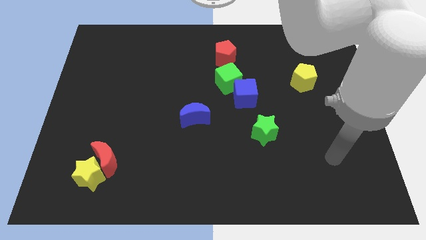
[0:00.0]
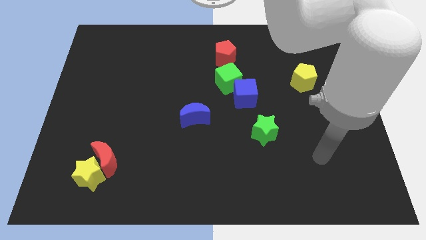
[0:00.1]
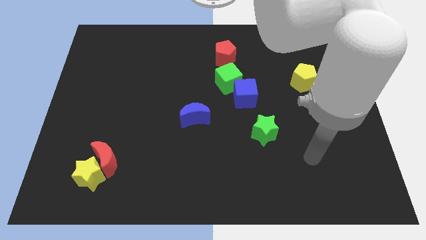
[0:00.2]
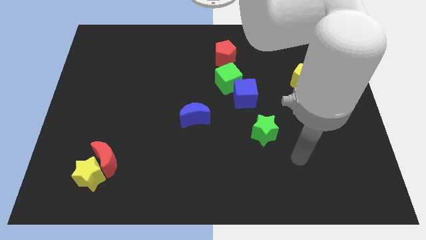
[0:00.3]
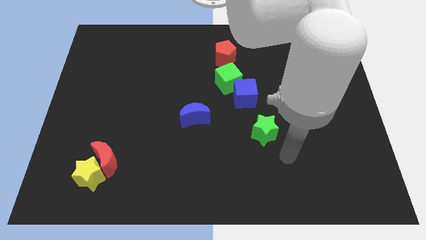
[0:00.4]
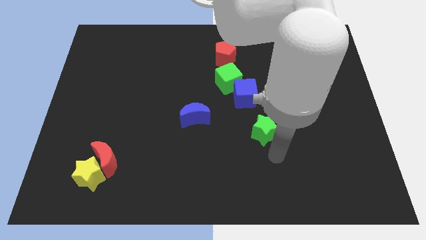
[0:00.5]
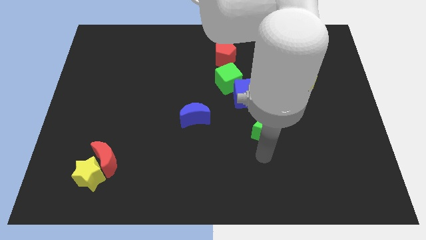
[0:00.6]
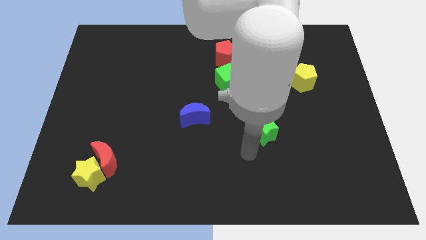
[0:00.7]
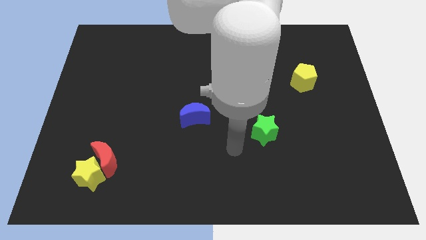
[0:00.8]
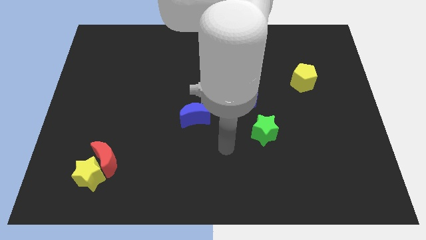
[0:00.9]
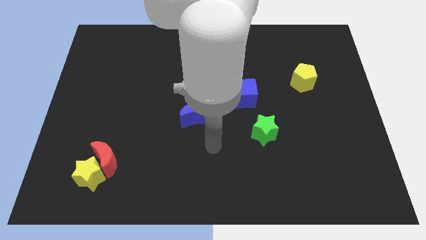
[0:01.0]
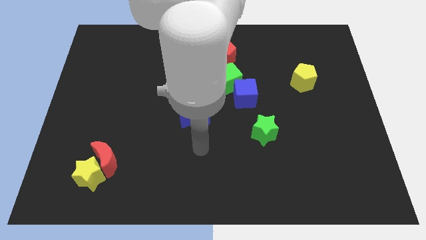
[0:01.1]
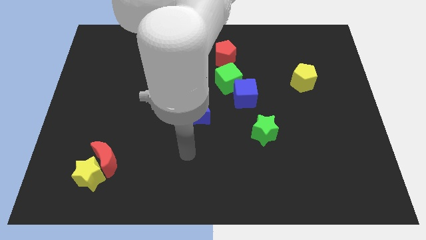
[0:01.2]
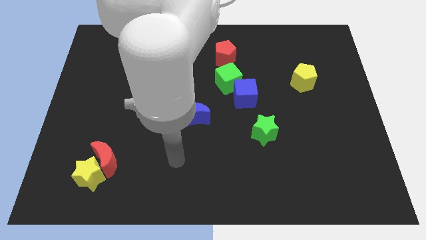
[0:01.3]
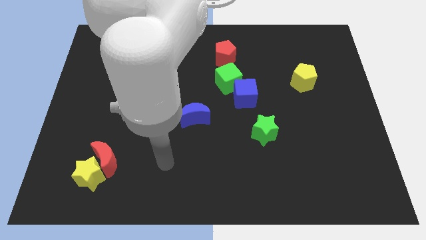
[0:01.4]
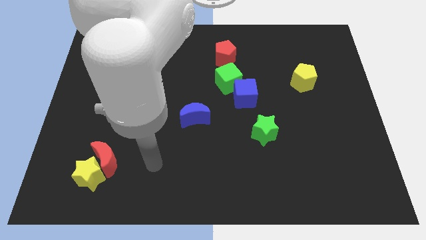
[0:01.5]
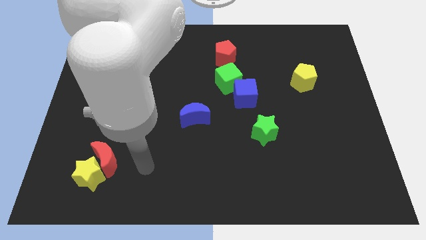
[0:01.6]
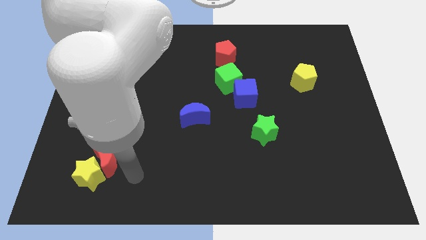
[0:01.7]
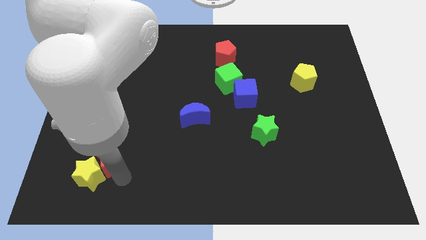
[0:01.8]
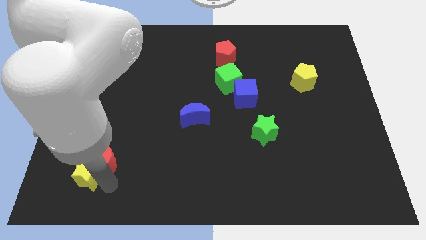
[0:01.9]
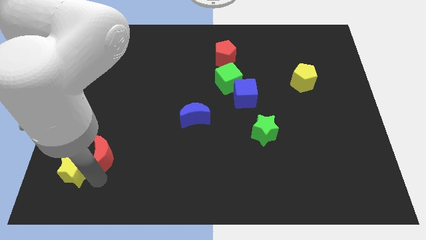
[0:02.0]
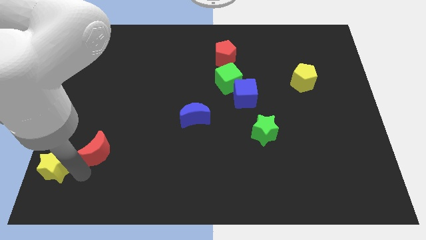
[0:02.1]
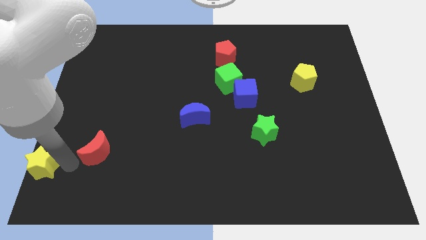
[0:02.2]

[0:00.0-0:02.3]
separate the red moon from the yellow star

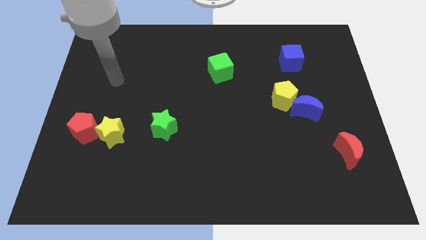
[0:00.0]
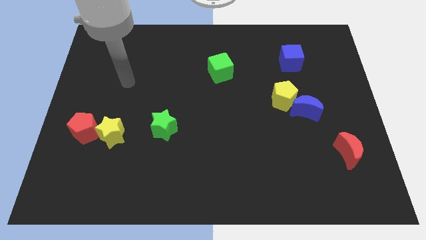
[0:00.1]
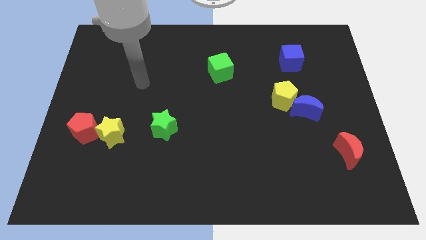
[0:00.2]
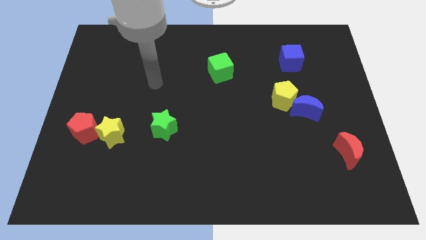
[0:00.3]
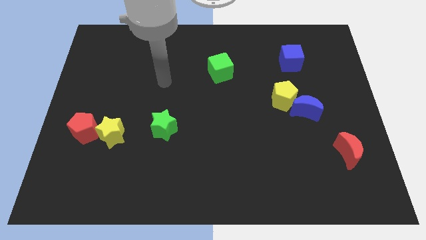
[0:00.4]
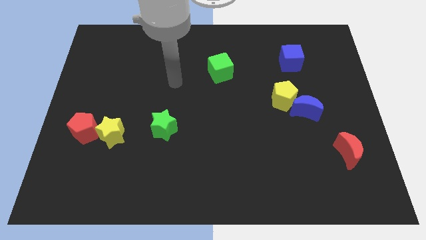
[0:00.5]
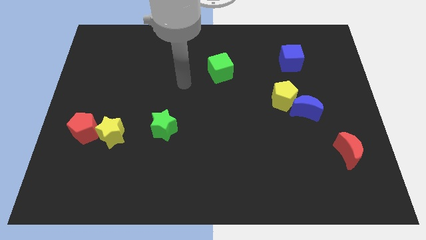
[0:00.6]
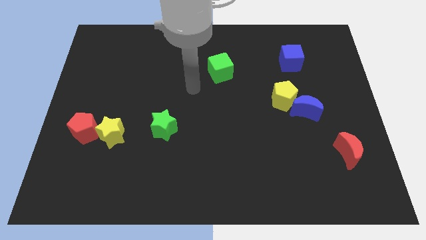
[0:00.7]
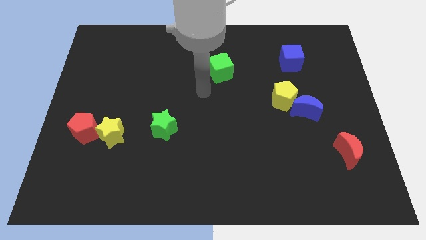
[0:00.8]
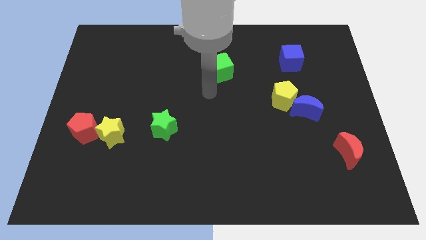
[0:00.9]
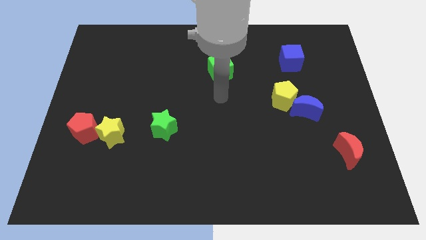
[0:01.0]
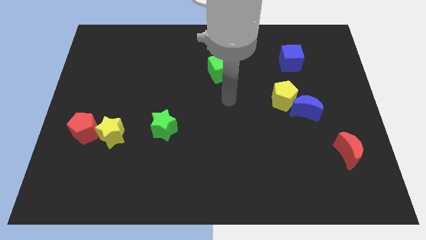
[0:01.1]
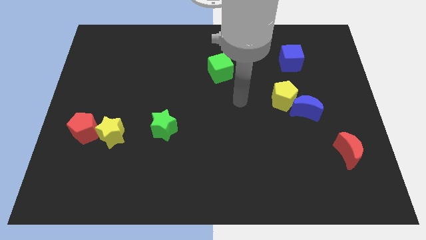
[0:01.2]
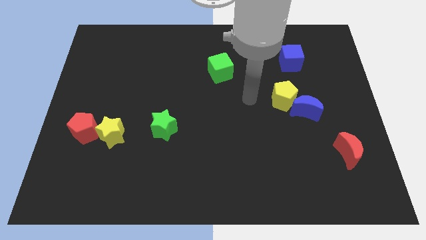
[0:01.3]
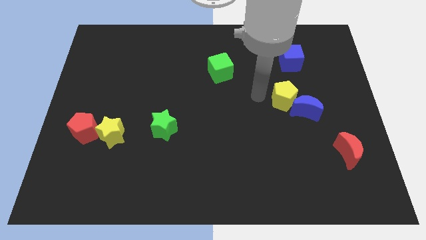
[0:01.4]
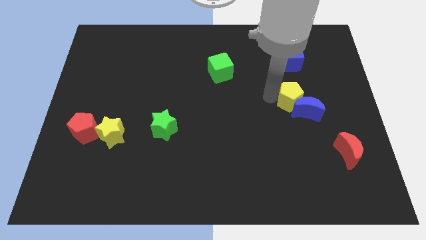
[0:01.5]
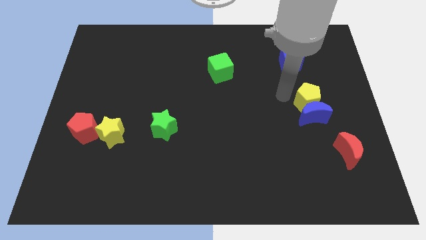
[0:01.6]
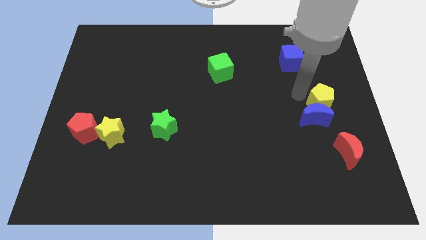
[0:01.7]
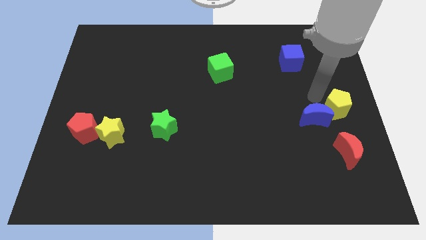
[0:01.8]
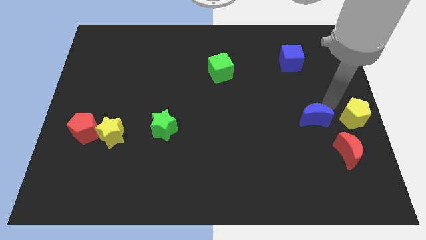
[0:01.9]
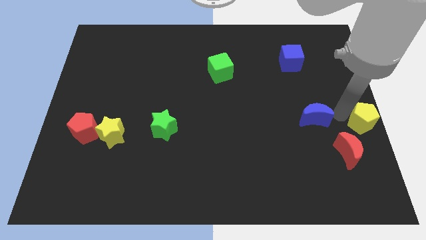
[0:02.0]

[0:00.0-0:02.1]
separate the blue moon from the yellow pentagon

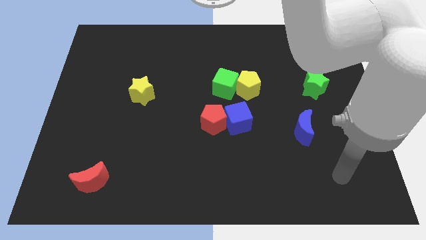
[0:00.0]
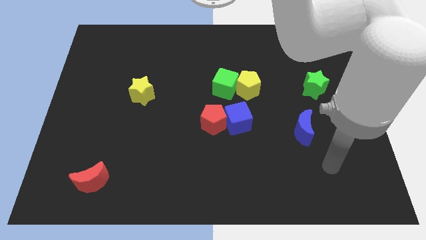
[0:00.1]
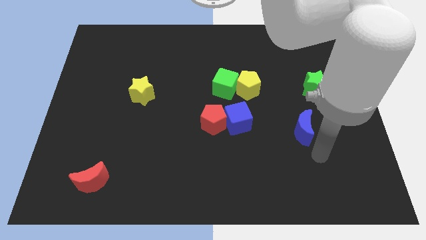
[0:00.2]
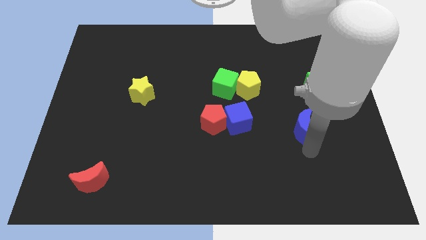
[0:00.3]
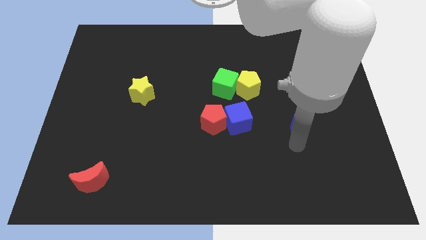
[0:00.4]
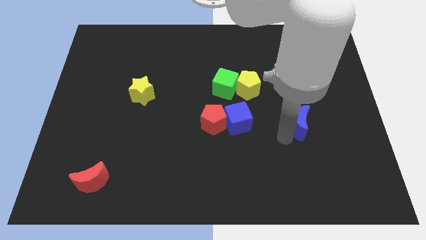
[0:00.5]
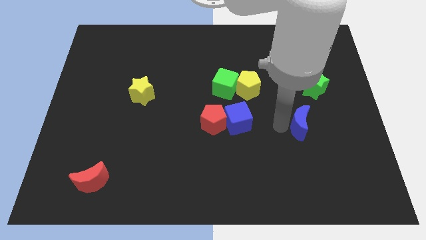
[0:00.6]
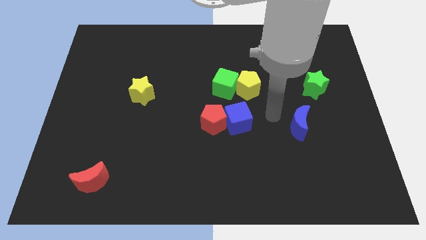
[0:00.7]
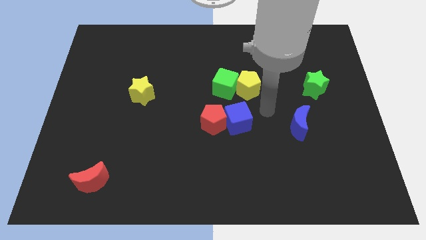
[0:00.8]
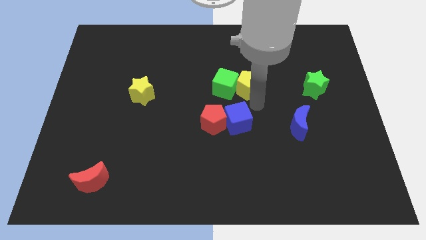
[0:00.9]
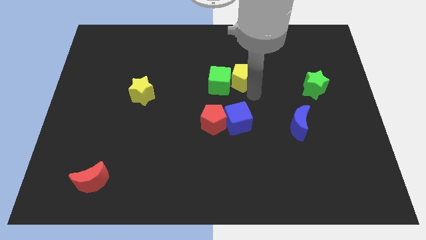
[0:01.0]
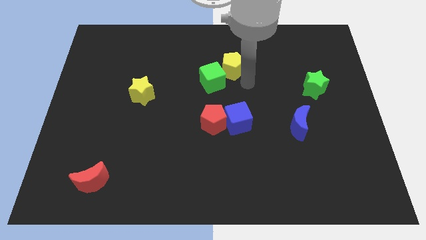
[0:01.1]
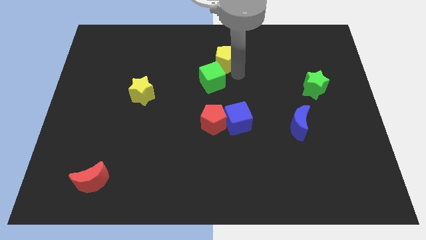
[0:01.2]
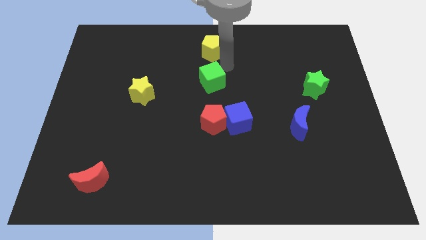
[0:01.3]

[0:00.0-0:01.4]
move the green cube away from the yellow pentagon

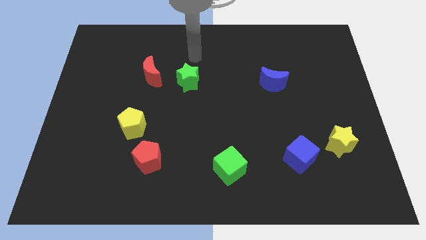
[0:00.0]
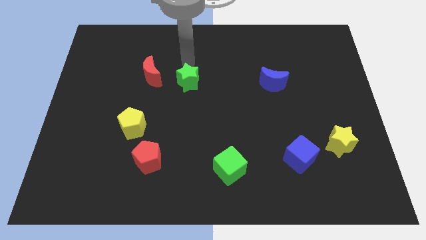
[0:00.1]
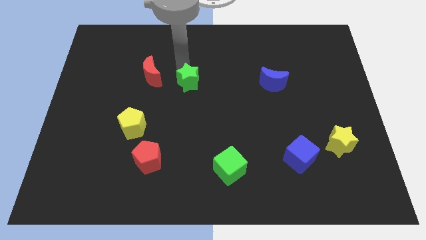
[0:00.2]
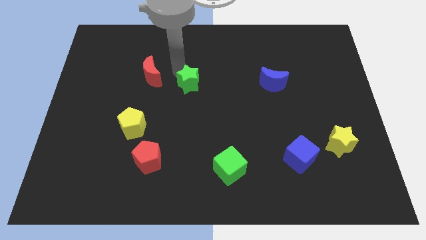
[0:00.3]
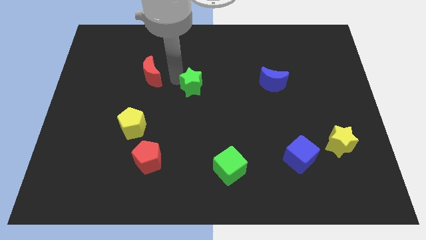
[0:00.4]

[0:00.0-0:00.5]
move the red moon away from the green star

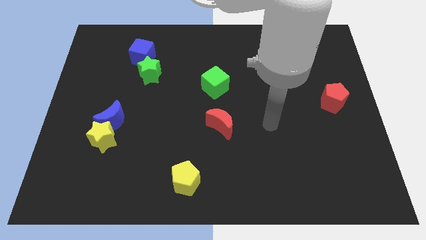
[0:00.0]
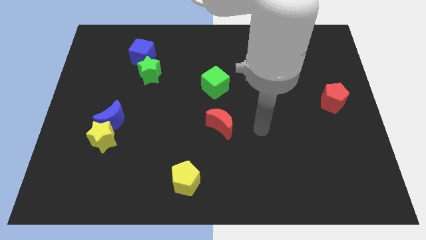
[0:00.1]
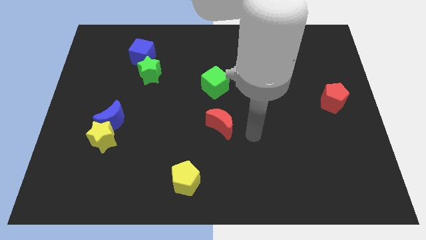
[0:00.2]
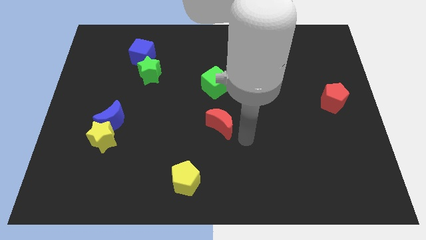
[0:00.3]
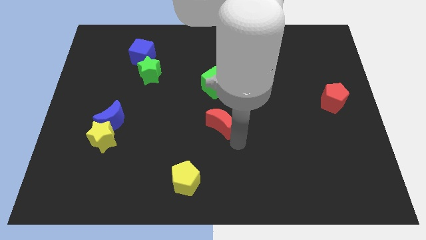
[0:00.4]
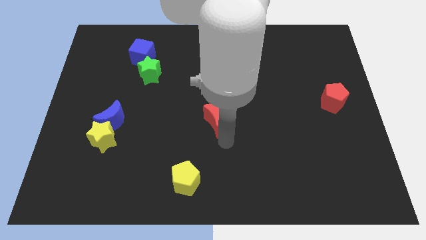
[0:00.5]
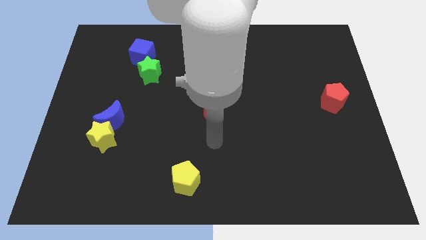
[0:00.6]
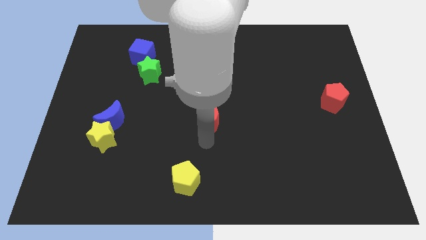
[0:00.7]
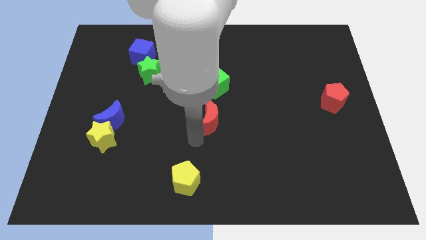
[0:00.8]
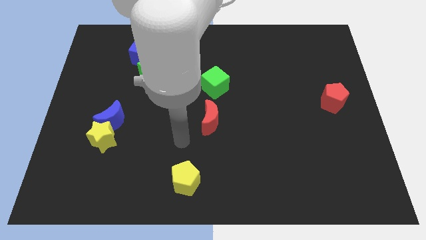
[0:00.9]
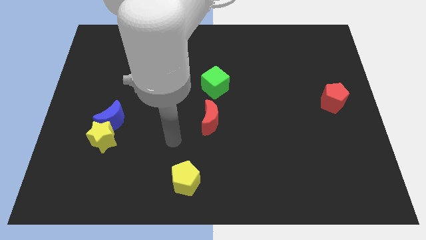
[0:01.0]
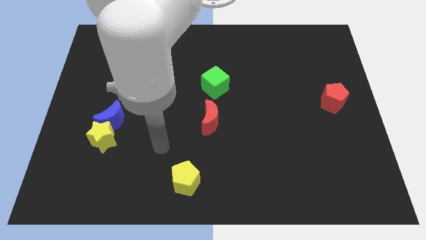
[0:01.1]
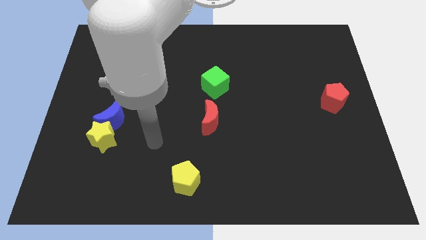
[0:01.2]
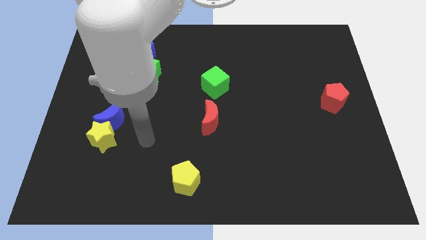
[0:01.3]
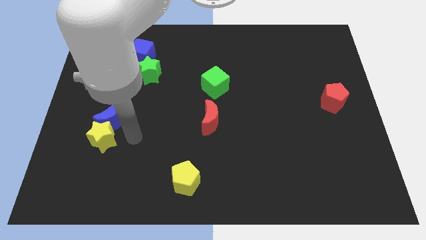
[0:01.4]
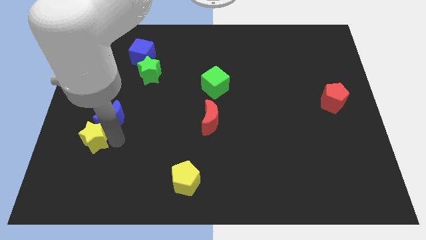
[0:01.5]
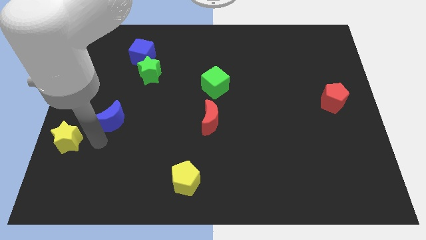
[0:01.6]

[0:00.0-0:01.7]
separate the blue moon from the yellow star

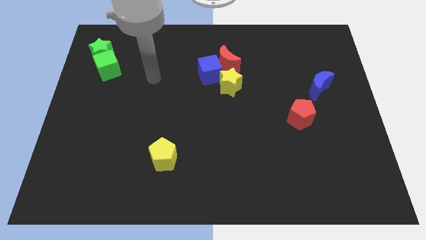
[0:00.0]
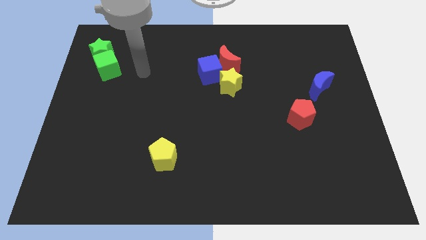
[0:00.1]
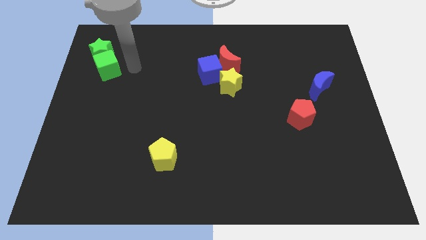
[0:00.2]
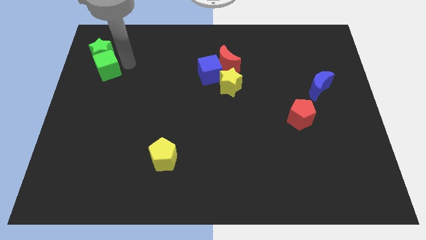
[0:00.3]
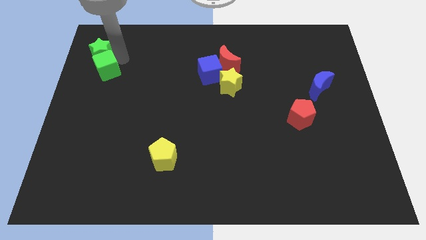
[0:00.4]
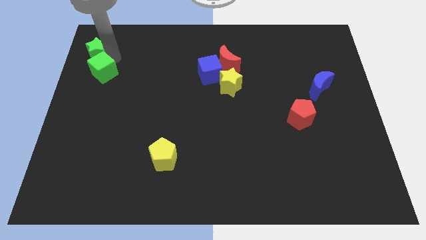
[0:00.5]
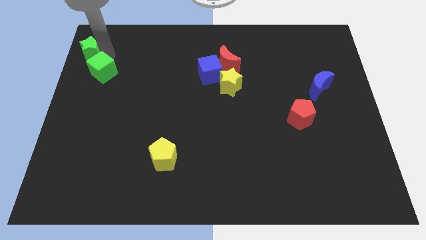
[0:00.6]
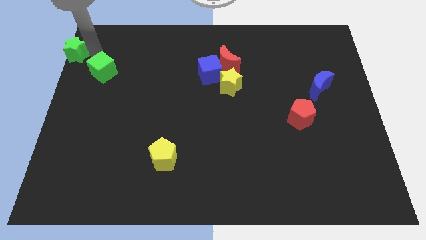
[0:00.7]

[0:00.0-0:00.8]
separate the green cube from the green star

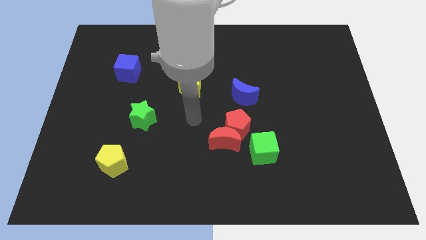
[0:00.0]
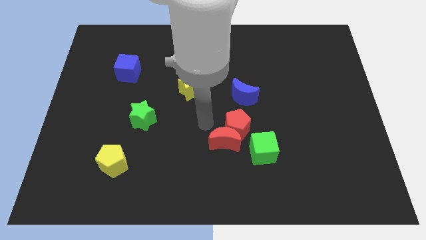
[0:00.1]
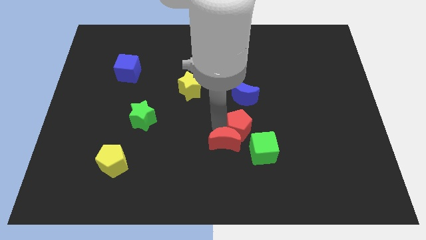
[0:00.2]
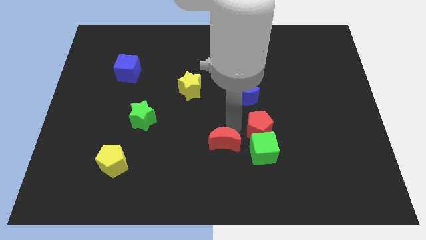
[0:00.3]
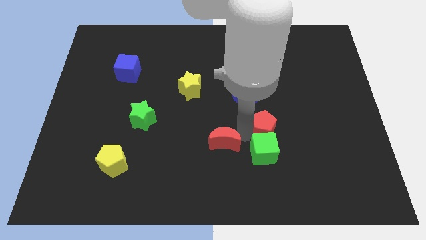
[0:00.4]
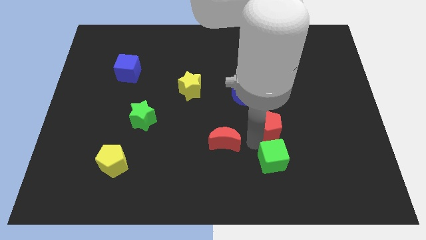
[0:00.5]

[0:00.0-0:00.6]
separate the red moon from the red pentagon and green cube
